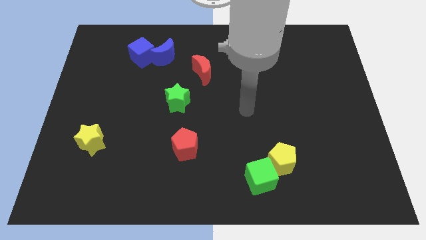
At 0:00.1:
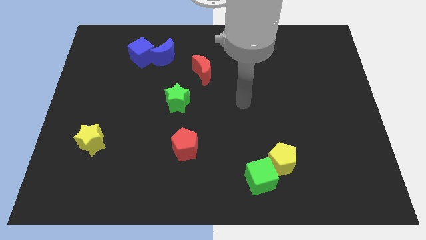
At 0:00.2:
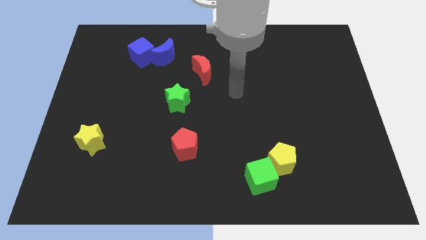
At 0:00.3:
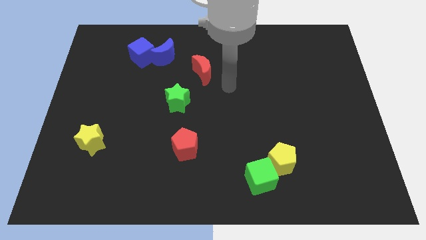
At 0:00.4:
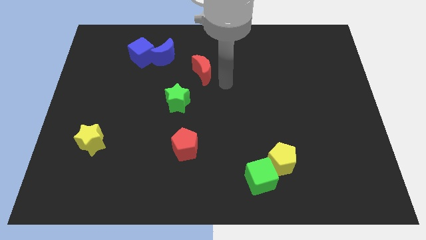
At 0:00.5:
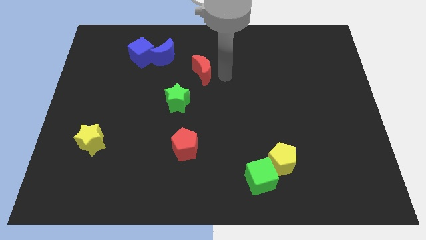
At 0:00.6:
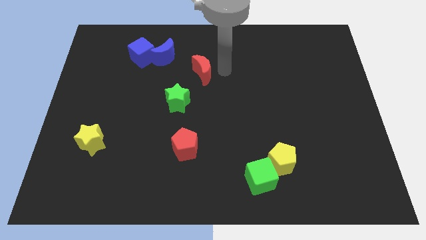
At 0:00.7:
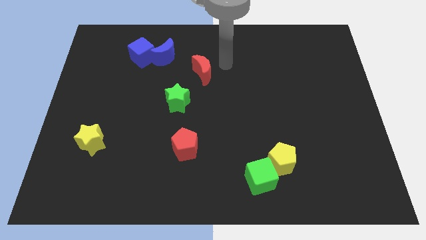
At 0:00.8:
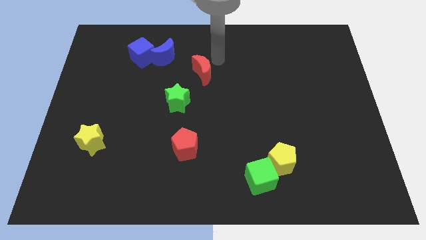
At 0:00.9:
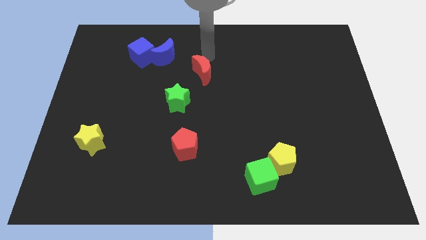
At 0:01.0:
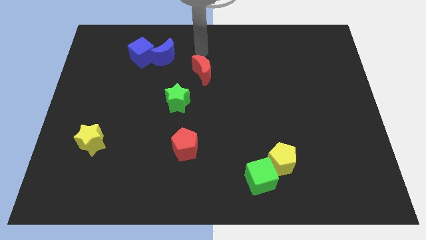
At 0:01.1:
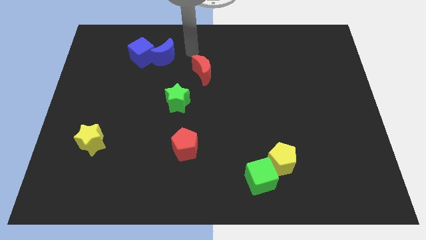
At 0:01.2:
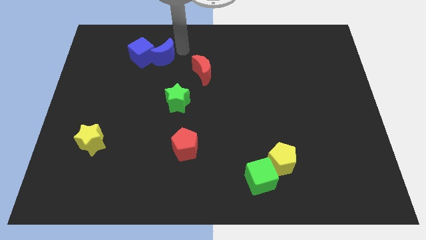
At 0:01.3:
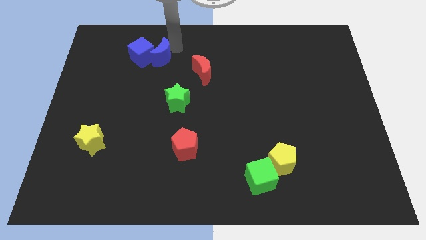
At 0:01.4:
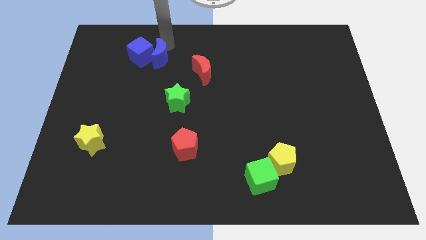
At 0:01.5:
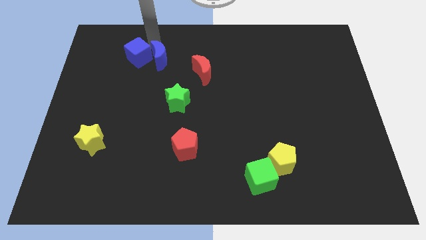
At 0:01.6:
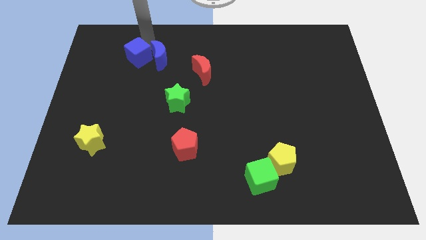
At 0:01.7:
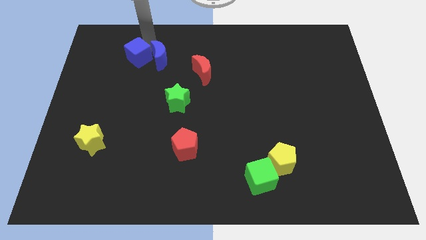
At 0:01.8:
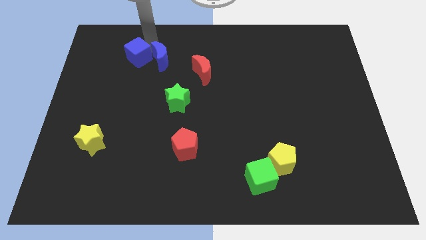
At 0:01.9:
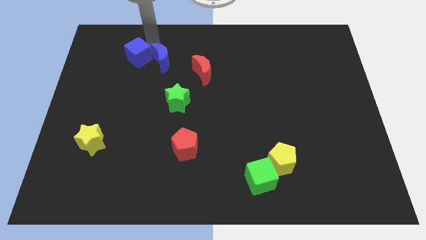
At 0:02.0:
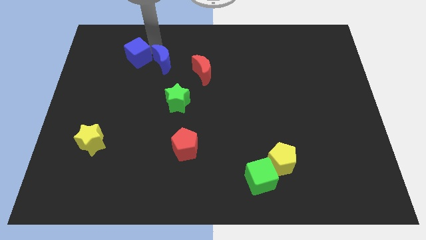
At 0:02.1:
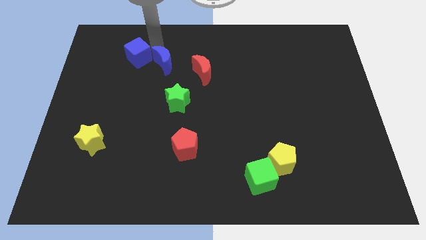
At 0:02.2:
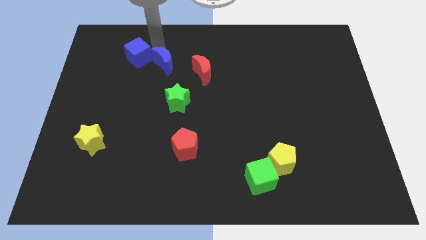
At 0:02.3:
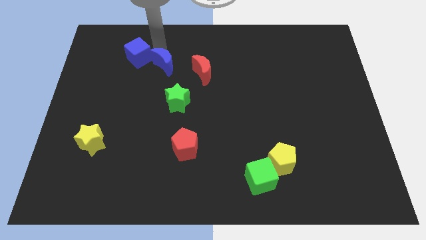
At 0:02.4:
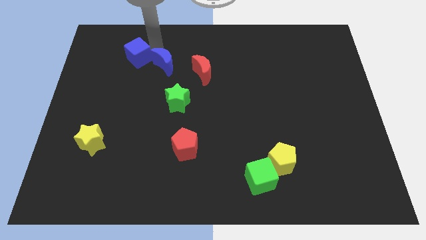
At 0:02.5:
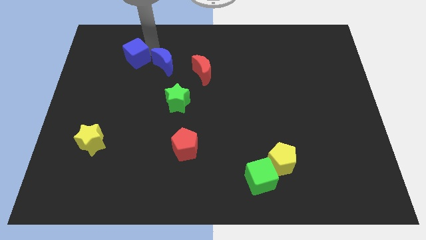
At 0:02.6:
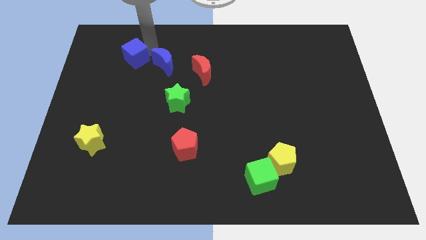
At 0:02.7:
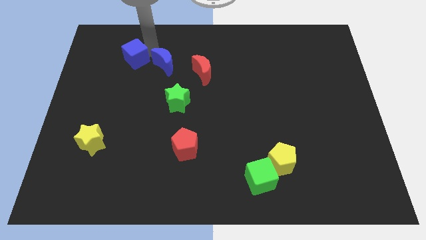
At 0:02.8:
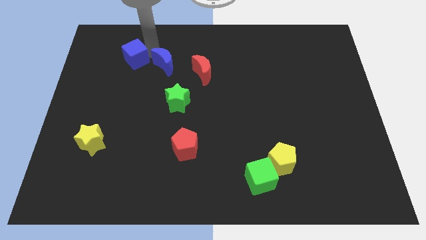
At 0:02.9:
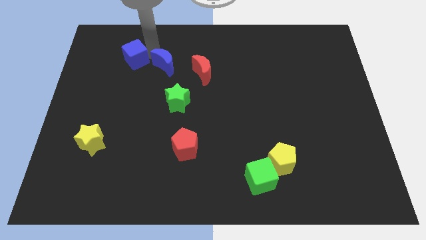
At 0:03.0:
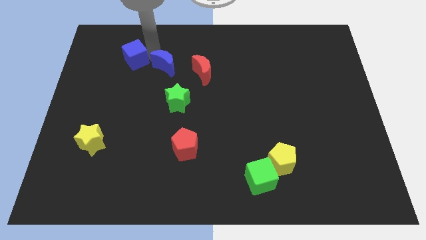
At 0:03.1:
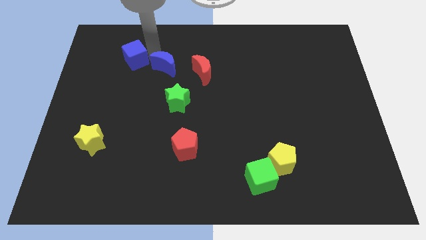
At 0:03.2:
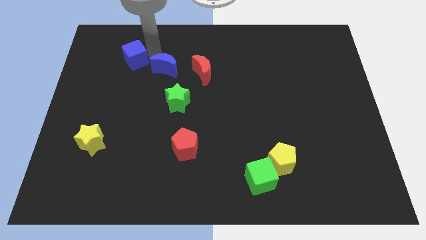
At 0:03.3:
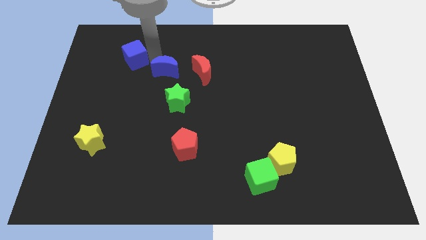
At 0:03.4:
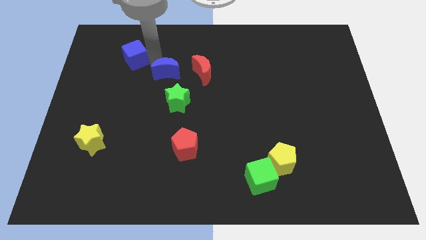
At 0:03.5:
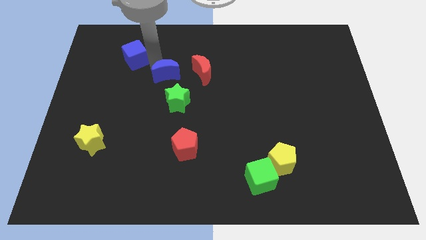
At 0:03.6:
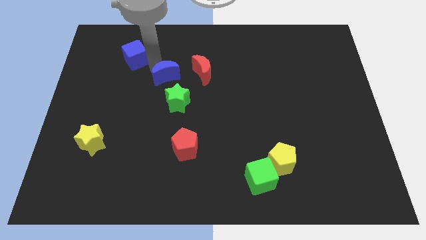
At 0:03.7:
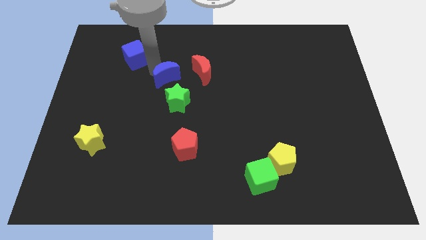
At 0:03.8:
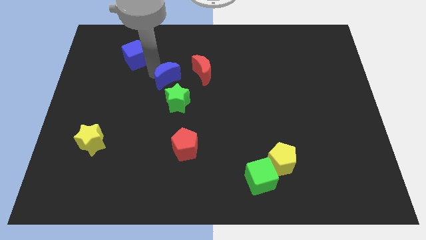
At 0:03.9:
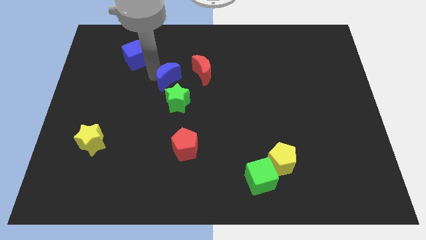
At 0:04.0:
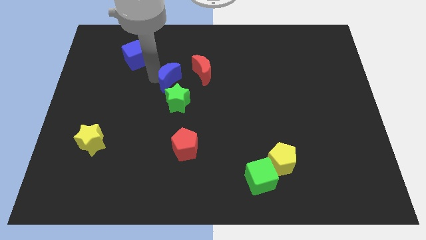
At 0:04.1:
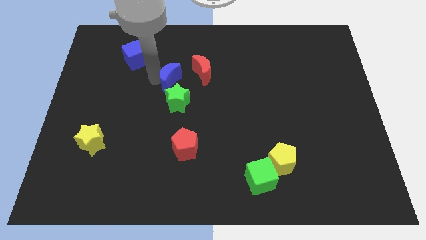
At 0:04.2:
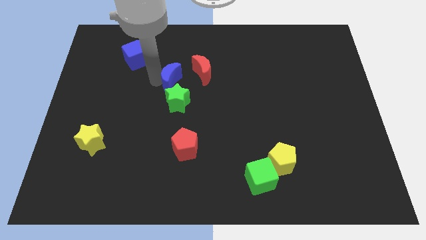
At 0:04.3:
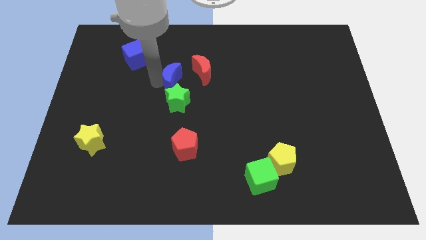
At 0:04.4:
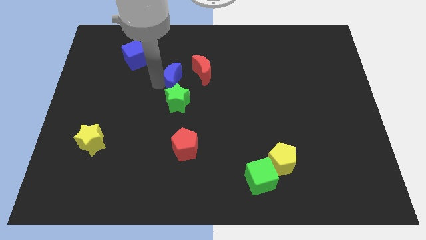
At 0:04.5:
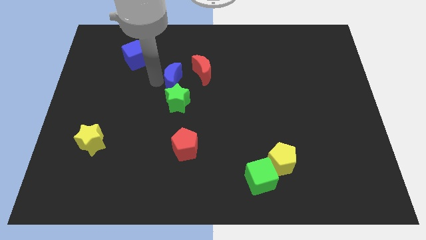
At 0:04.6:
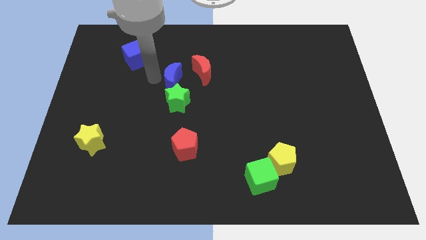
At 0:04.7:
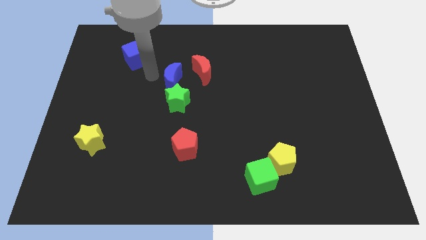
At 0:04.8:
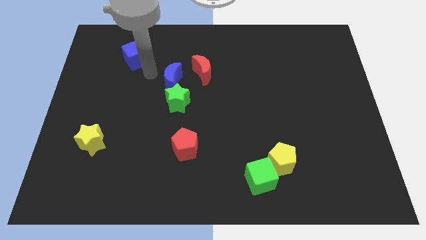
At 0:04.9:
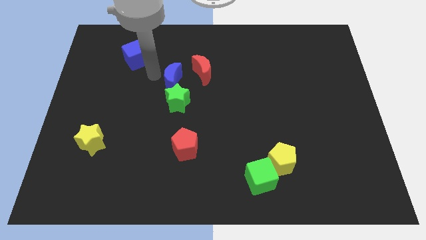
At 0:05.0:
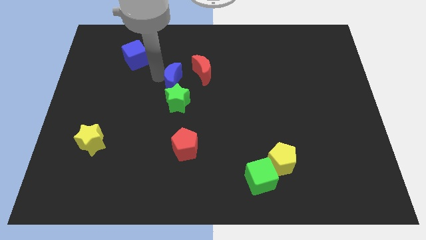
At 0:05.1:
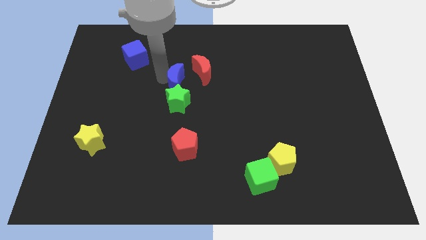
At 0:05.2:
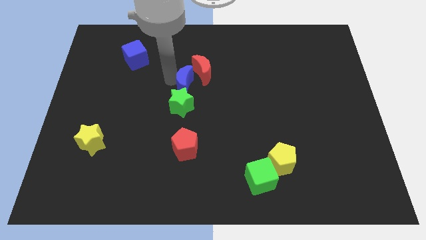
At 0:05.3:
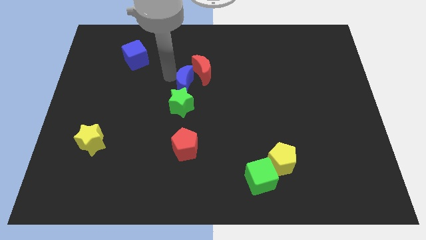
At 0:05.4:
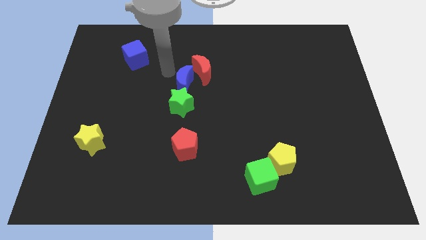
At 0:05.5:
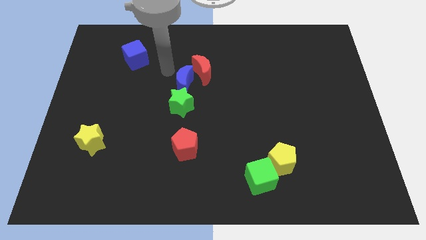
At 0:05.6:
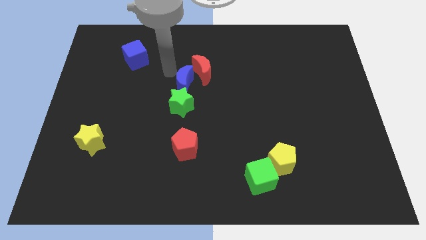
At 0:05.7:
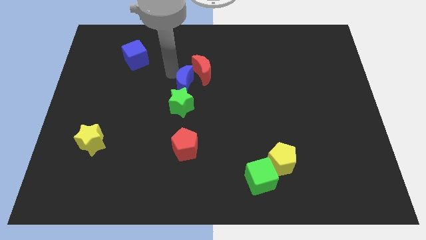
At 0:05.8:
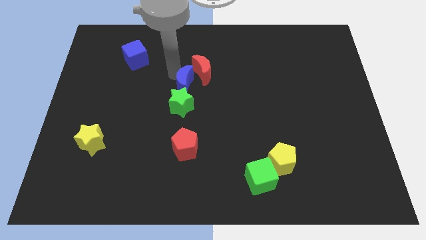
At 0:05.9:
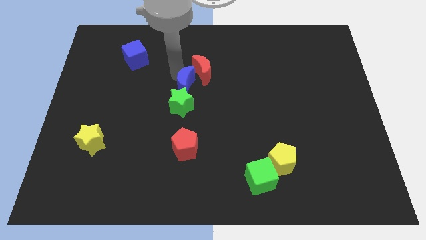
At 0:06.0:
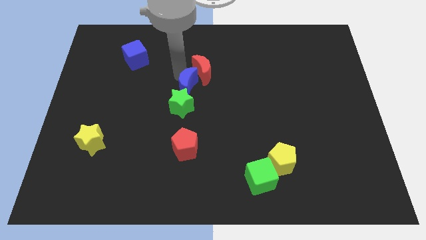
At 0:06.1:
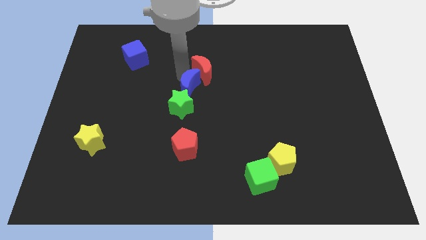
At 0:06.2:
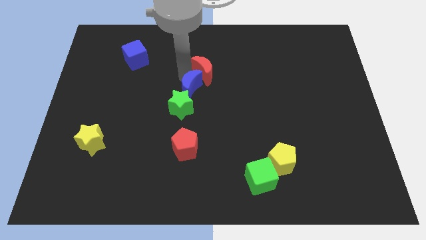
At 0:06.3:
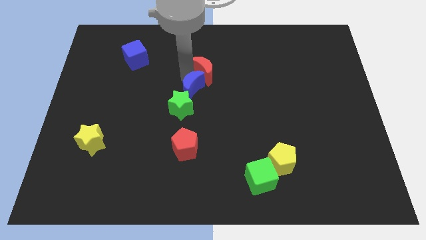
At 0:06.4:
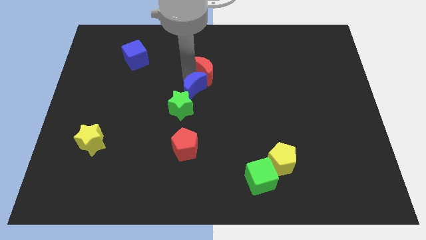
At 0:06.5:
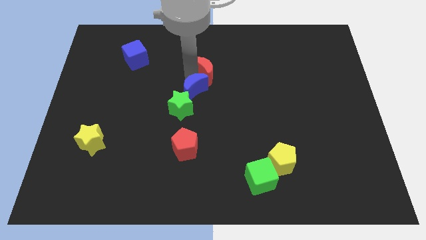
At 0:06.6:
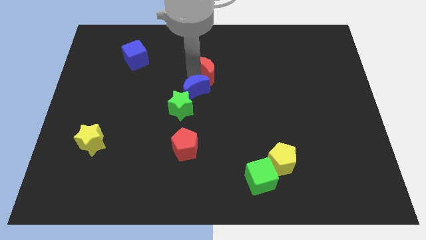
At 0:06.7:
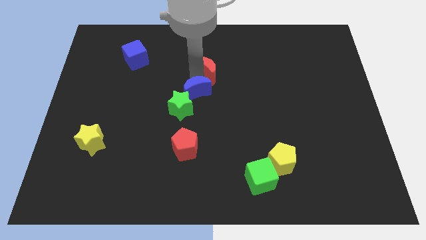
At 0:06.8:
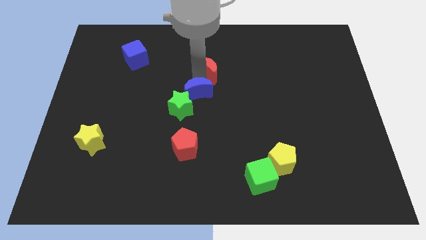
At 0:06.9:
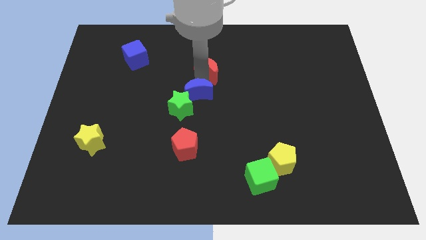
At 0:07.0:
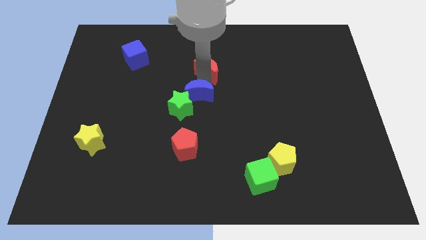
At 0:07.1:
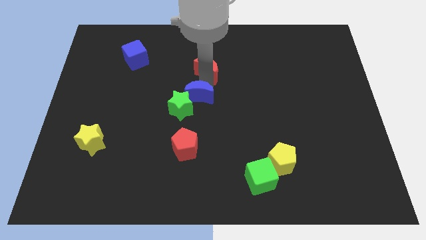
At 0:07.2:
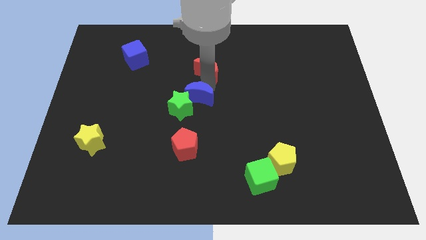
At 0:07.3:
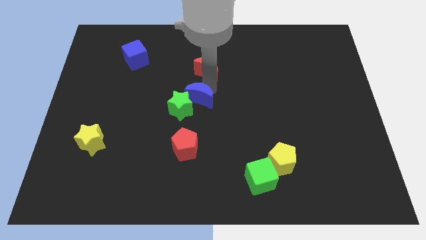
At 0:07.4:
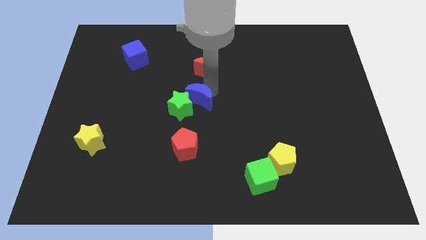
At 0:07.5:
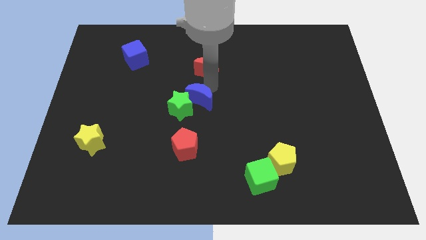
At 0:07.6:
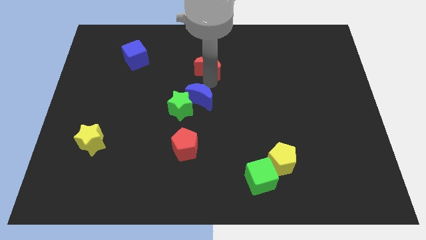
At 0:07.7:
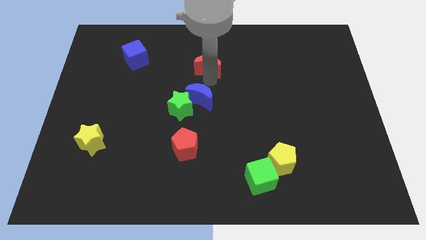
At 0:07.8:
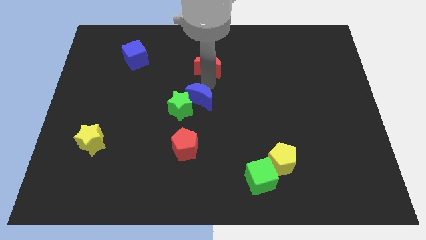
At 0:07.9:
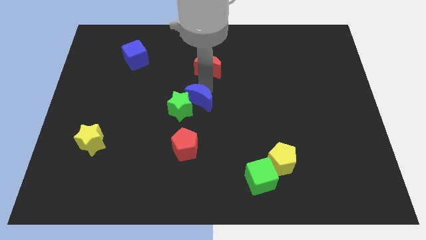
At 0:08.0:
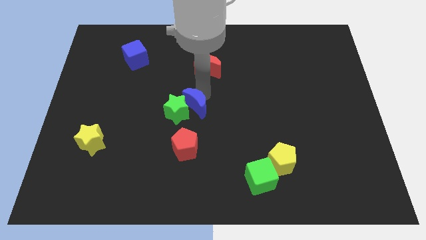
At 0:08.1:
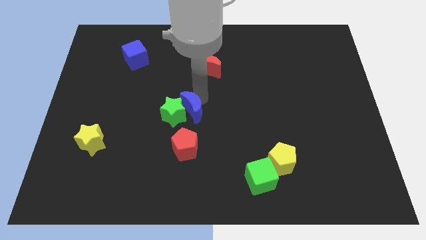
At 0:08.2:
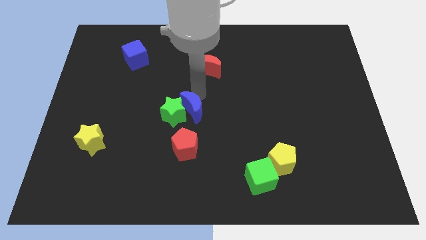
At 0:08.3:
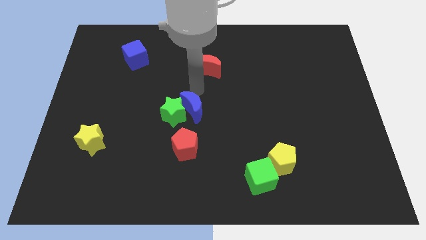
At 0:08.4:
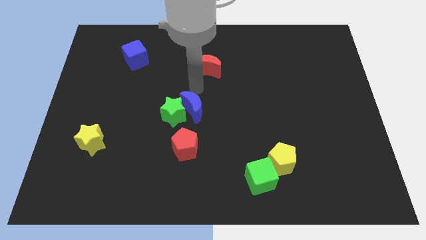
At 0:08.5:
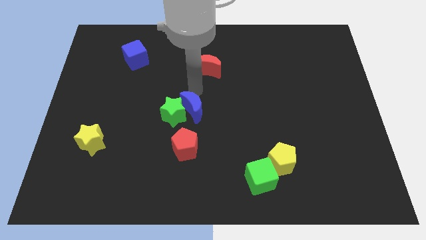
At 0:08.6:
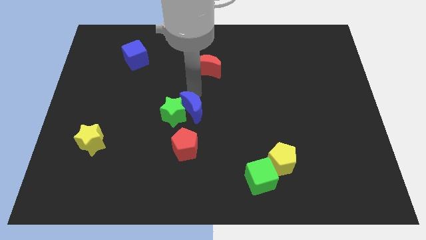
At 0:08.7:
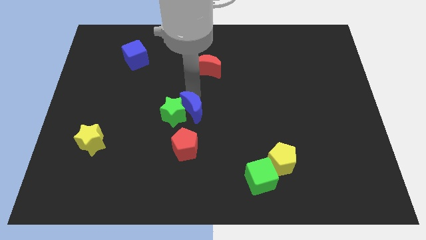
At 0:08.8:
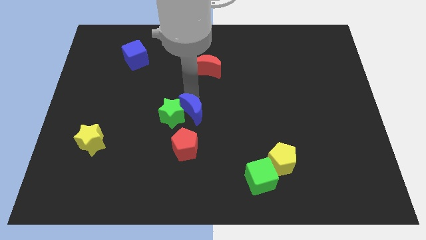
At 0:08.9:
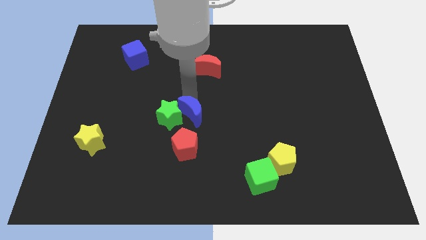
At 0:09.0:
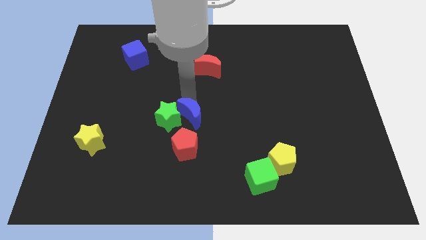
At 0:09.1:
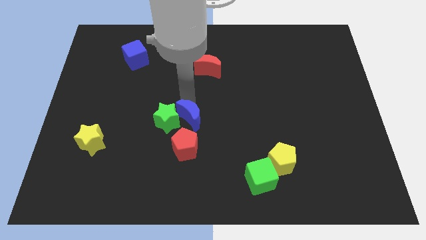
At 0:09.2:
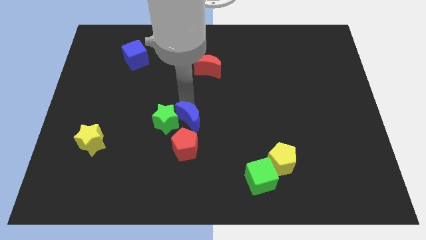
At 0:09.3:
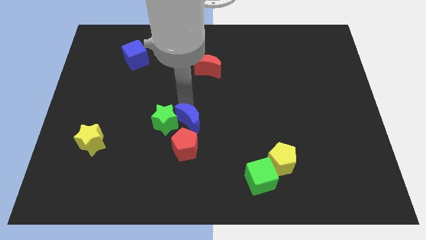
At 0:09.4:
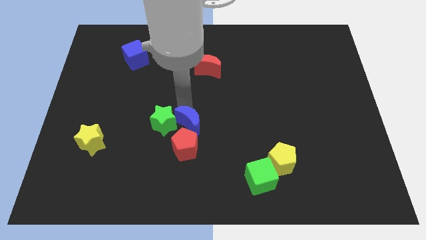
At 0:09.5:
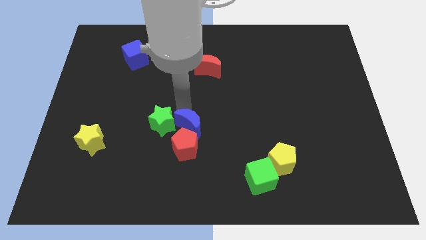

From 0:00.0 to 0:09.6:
push the blue moon towards the red pentagon
